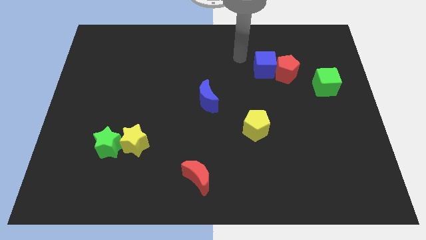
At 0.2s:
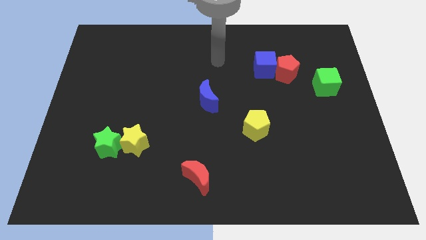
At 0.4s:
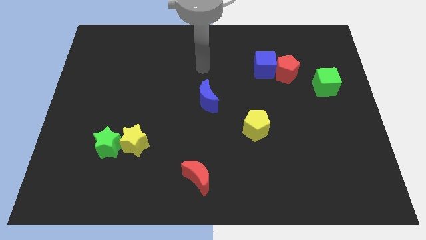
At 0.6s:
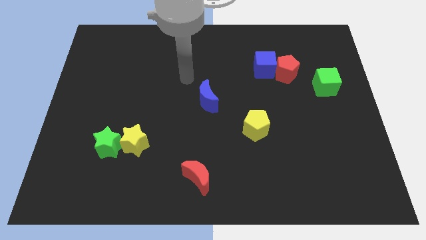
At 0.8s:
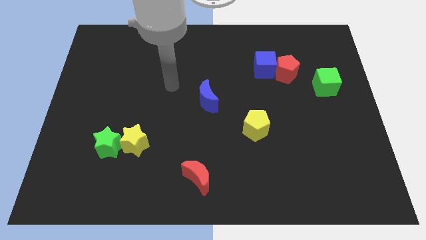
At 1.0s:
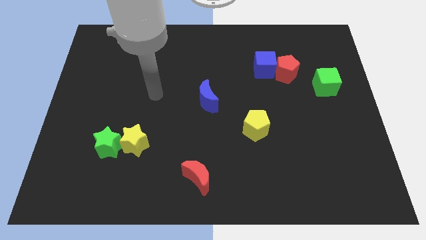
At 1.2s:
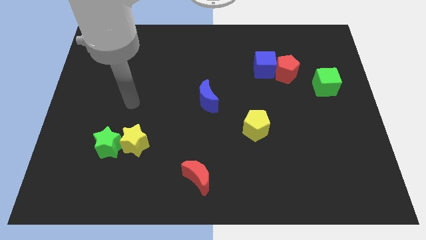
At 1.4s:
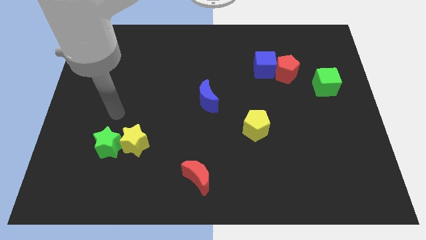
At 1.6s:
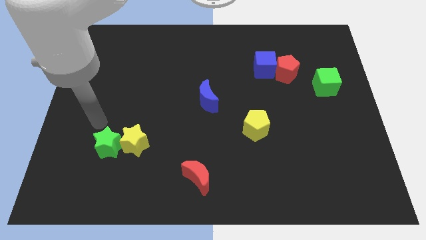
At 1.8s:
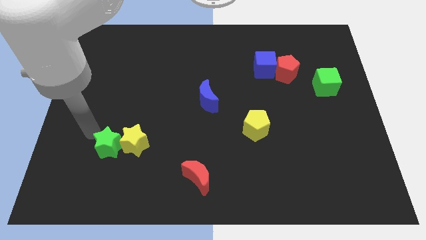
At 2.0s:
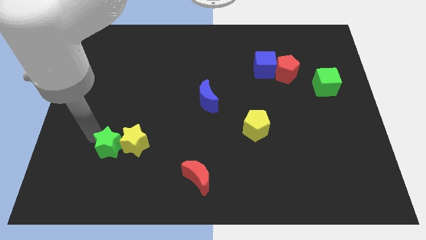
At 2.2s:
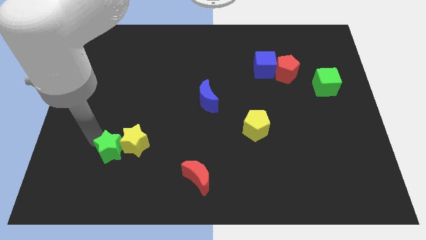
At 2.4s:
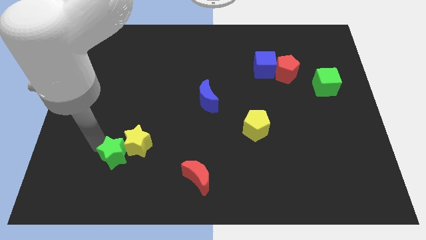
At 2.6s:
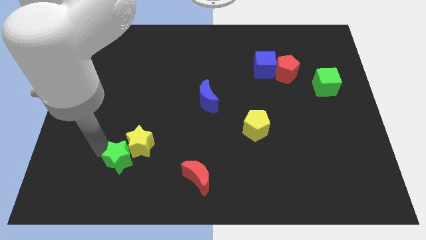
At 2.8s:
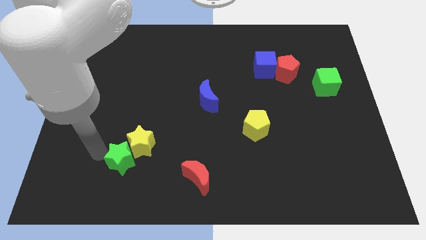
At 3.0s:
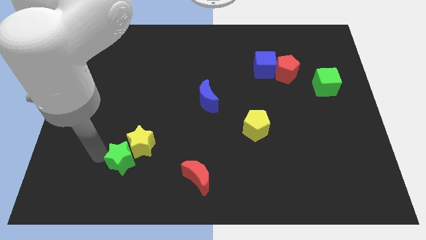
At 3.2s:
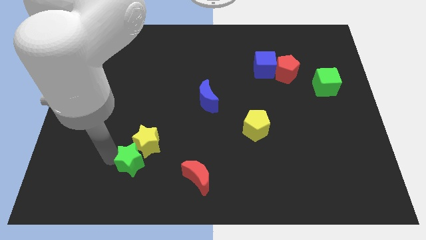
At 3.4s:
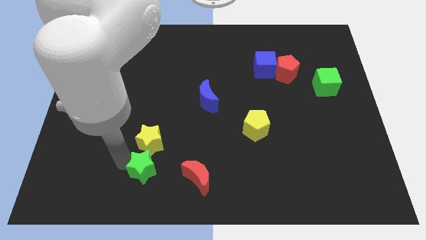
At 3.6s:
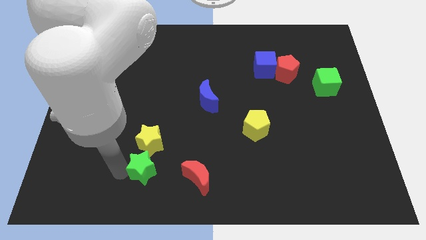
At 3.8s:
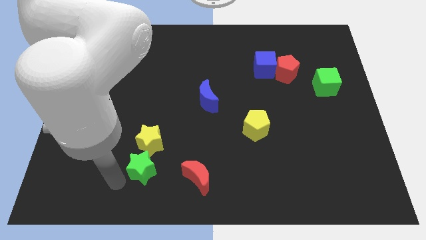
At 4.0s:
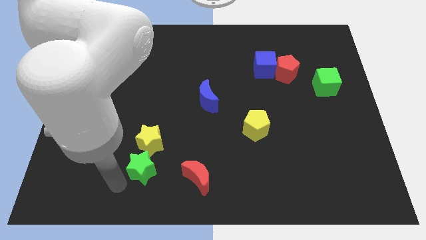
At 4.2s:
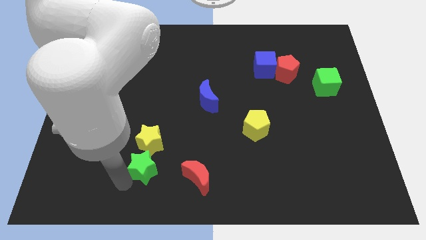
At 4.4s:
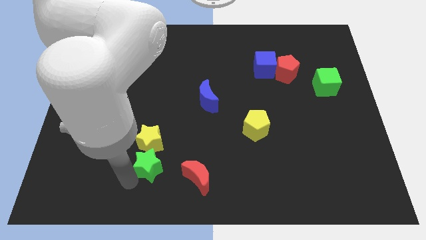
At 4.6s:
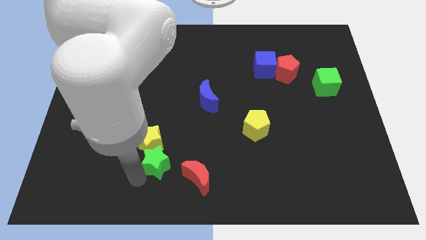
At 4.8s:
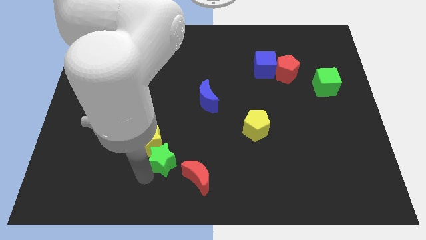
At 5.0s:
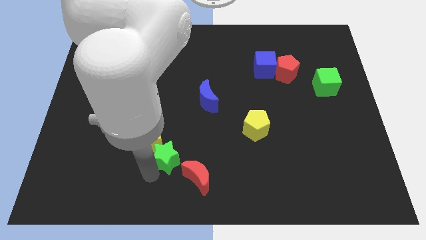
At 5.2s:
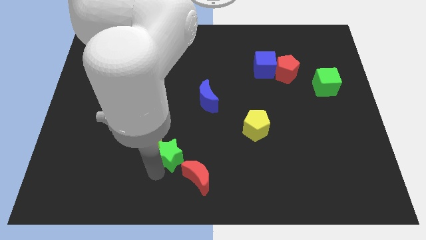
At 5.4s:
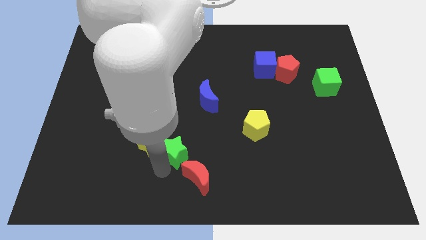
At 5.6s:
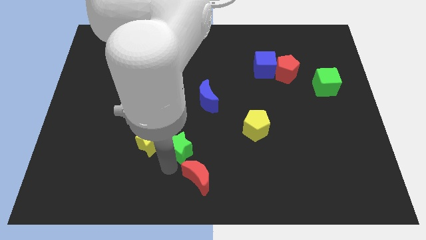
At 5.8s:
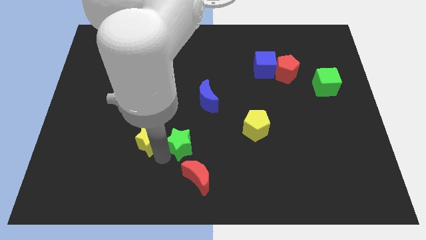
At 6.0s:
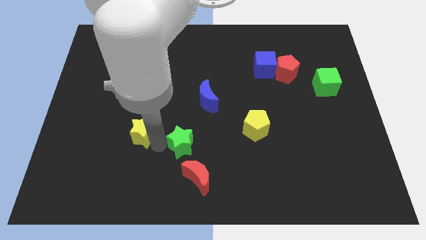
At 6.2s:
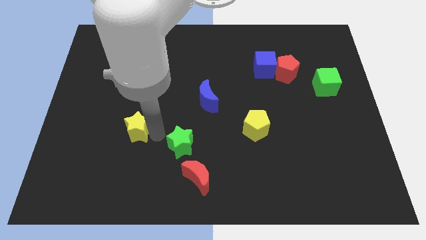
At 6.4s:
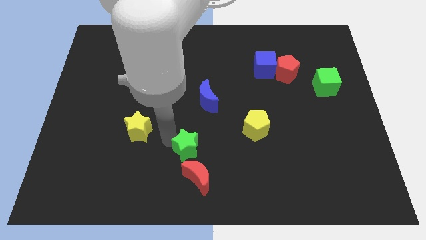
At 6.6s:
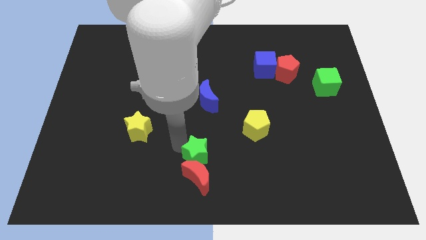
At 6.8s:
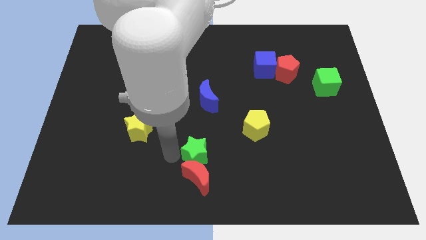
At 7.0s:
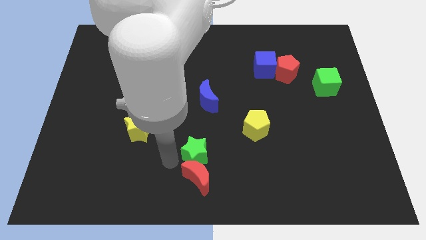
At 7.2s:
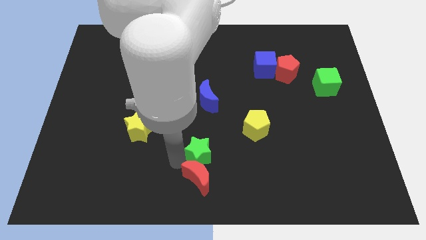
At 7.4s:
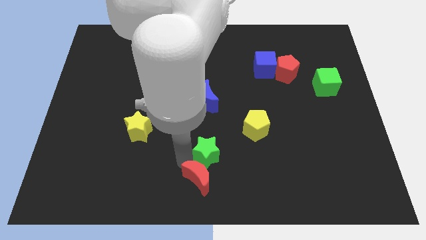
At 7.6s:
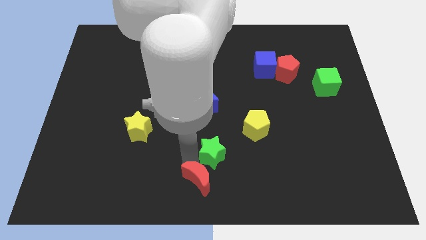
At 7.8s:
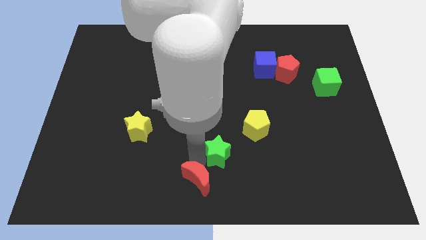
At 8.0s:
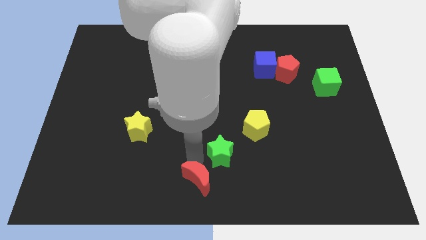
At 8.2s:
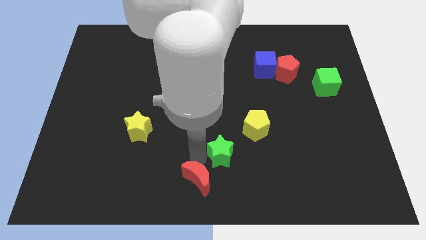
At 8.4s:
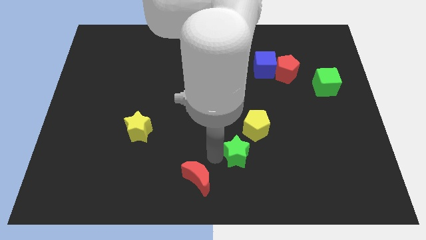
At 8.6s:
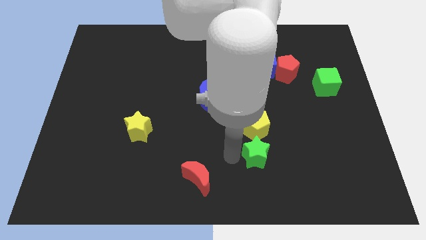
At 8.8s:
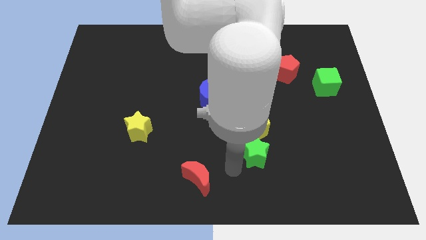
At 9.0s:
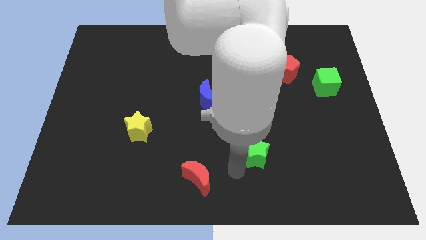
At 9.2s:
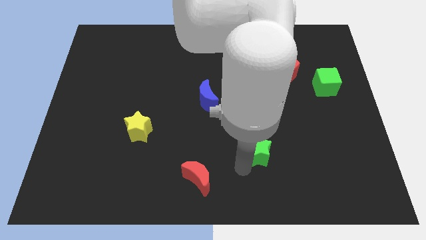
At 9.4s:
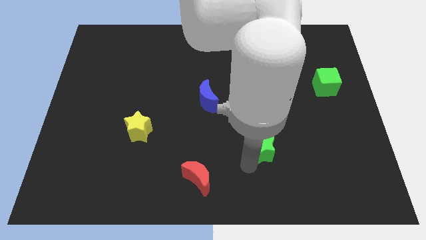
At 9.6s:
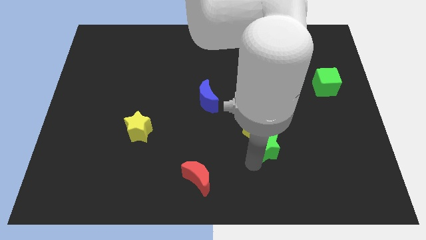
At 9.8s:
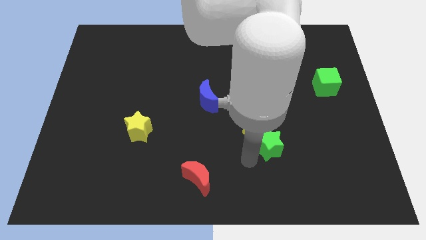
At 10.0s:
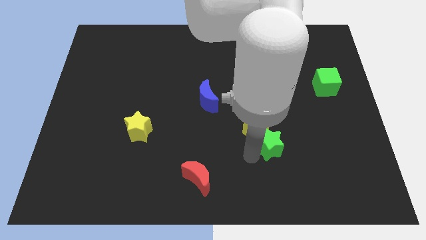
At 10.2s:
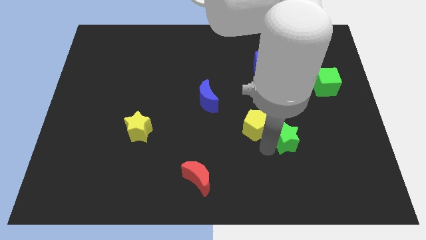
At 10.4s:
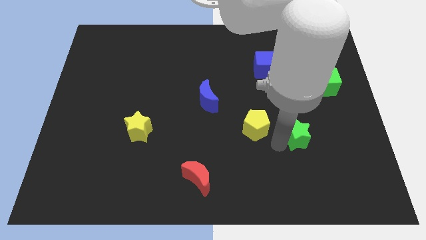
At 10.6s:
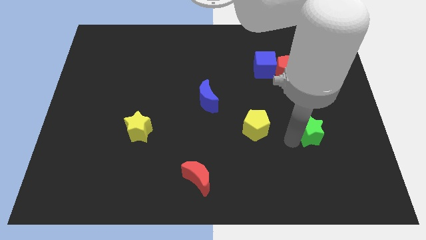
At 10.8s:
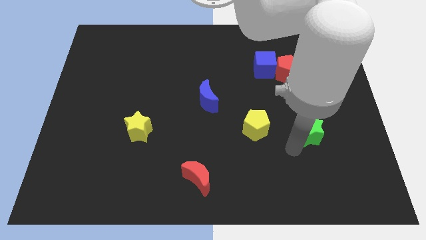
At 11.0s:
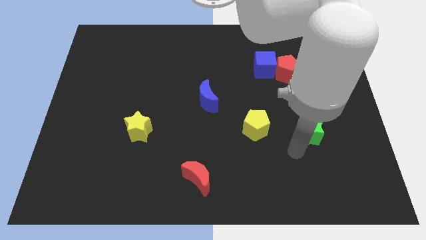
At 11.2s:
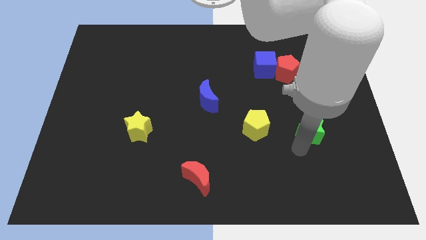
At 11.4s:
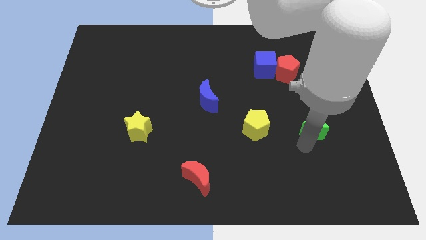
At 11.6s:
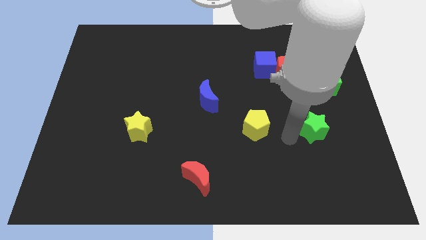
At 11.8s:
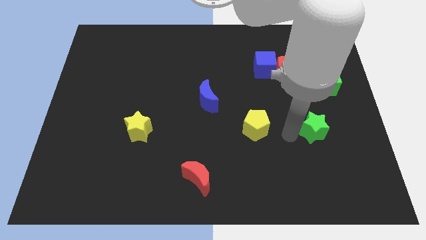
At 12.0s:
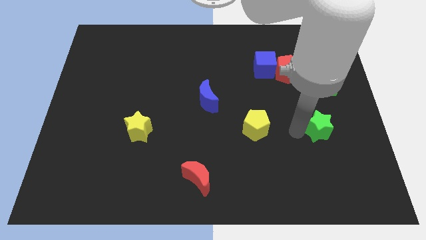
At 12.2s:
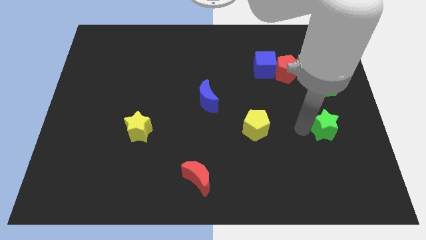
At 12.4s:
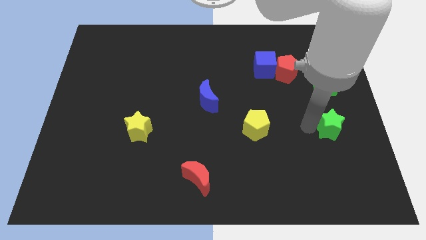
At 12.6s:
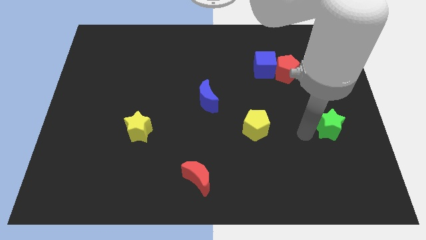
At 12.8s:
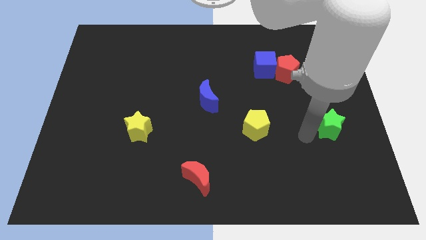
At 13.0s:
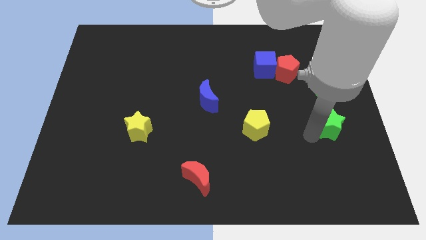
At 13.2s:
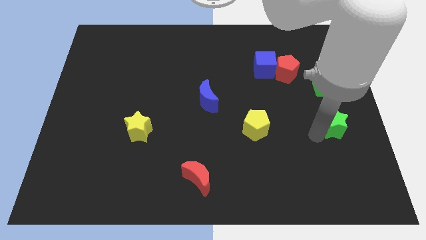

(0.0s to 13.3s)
put the green star to the right side
